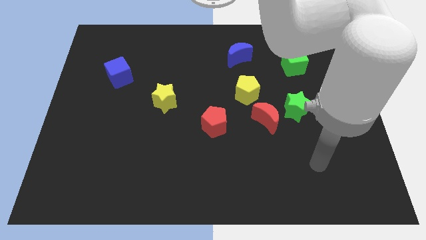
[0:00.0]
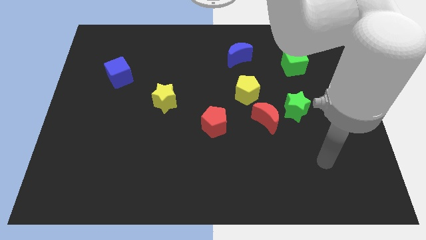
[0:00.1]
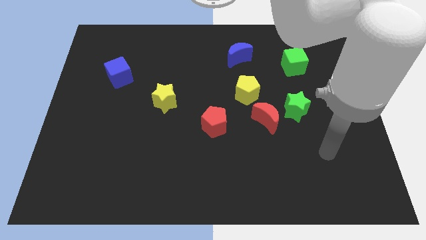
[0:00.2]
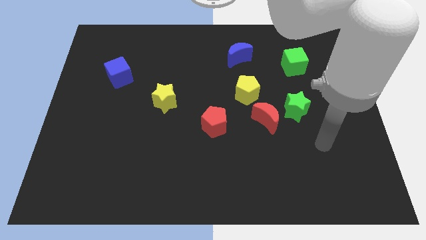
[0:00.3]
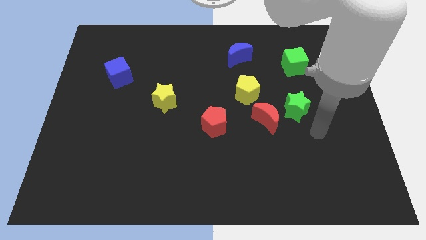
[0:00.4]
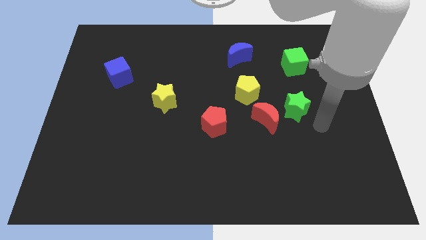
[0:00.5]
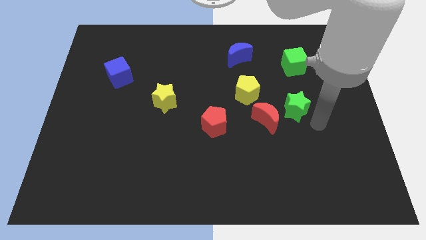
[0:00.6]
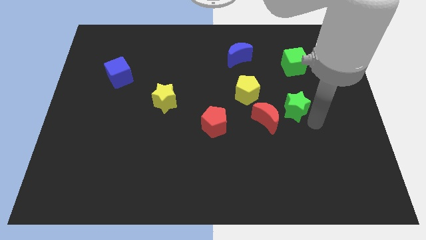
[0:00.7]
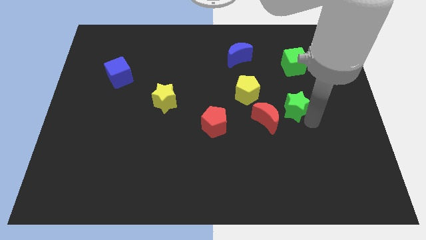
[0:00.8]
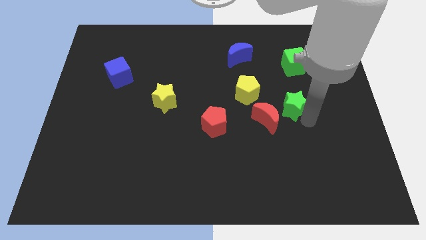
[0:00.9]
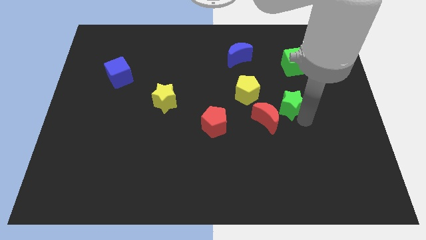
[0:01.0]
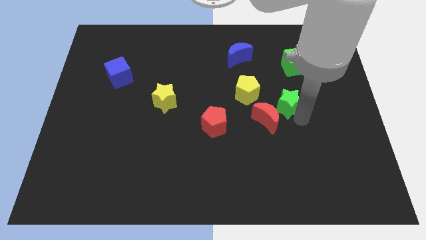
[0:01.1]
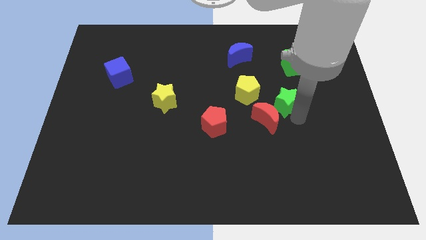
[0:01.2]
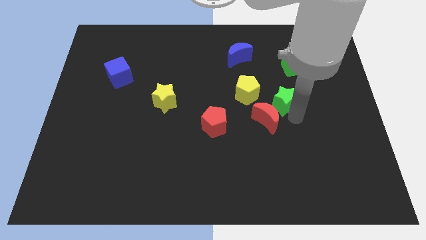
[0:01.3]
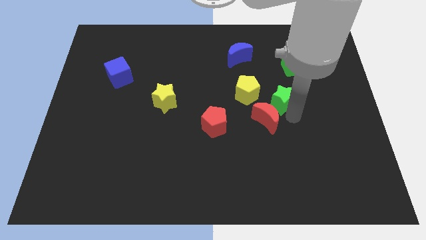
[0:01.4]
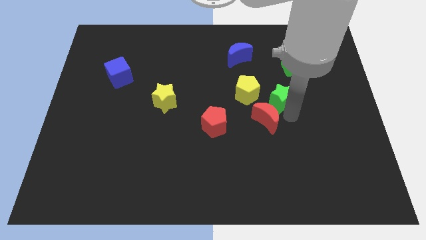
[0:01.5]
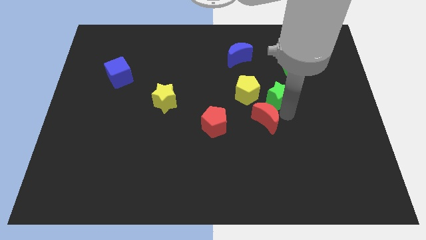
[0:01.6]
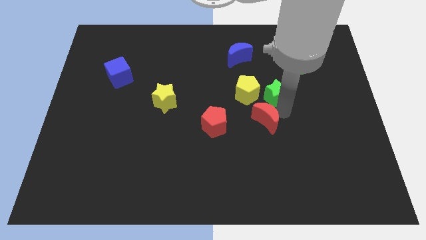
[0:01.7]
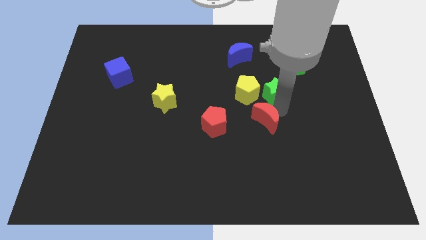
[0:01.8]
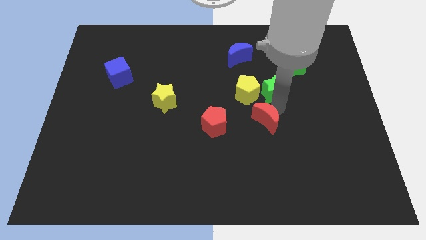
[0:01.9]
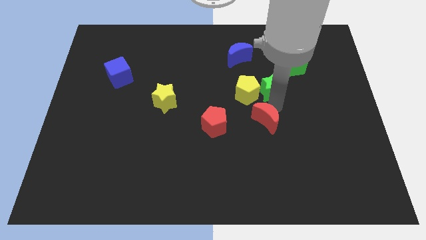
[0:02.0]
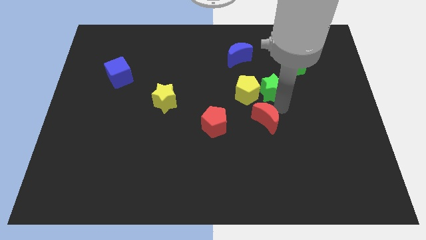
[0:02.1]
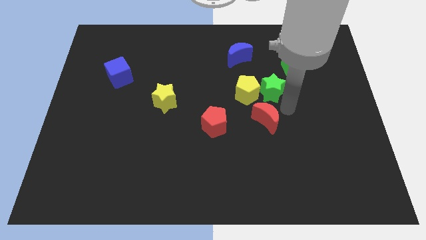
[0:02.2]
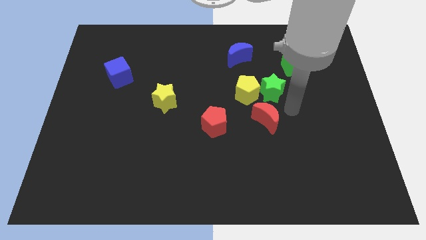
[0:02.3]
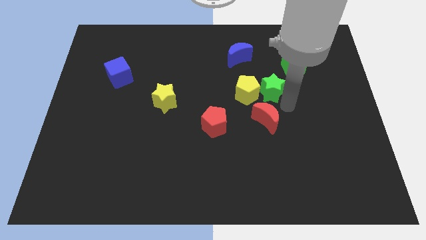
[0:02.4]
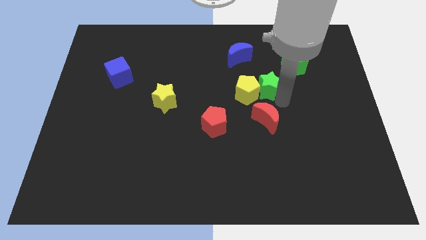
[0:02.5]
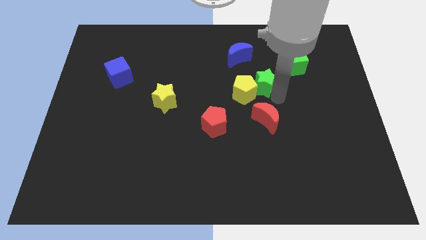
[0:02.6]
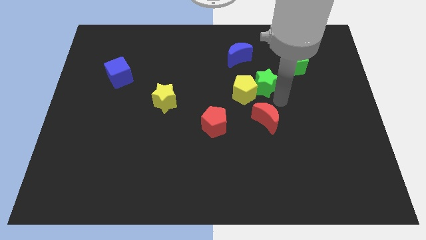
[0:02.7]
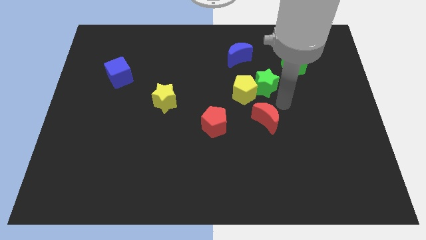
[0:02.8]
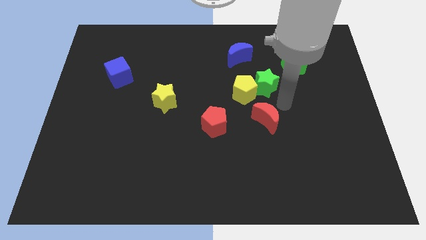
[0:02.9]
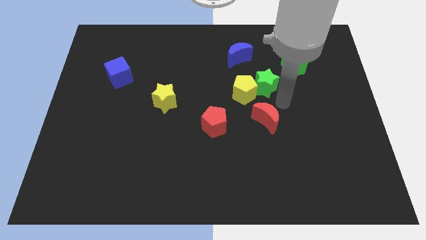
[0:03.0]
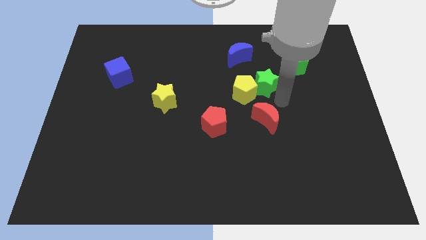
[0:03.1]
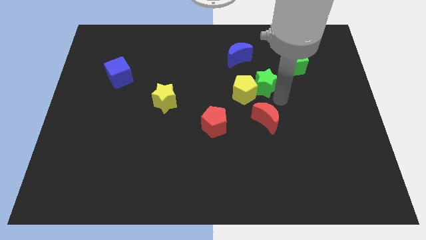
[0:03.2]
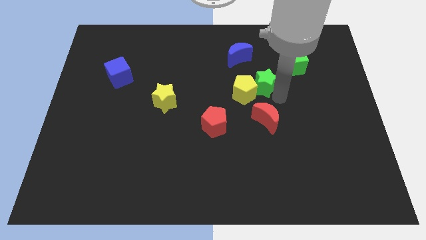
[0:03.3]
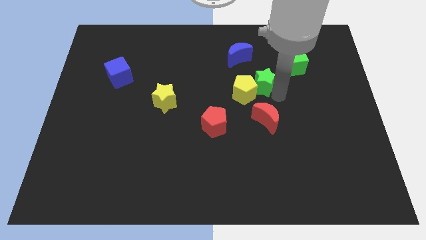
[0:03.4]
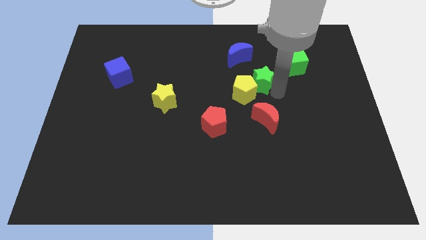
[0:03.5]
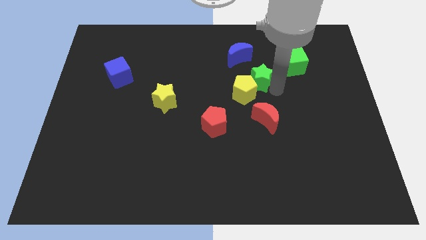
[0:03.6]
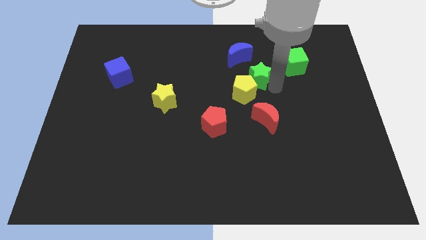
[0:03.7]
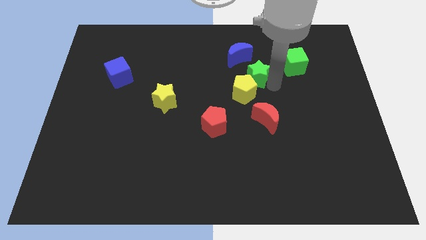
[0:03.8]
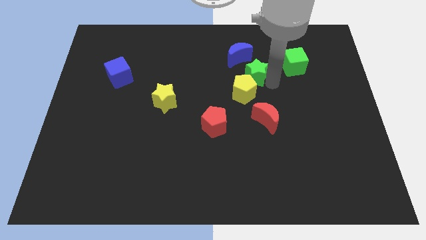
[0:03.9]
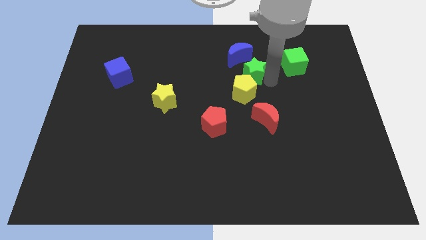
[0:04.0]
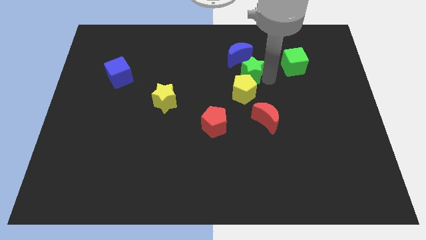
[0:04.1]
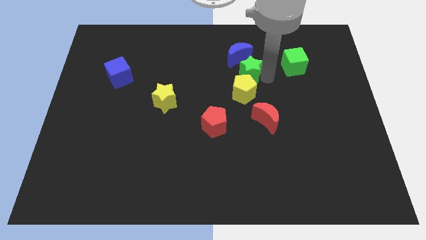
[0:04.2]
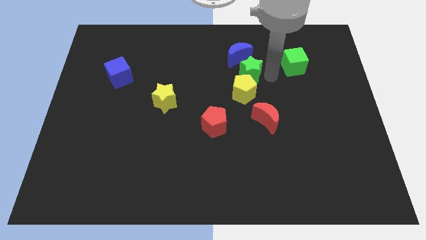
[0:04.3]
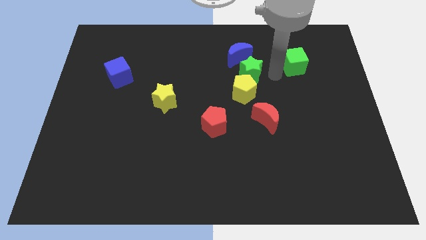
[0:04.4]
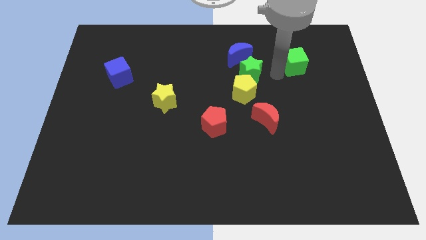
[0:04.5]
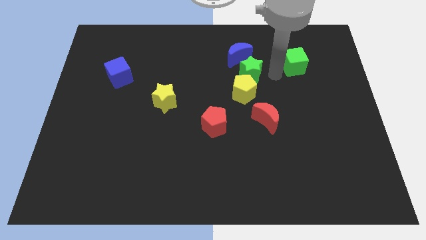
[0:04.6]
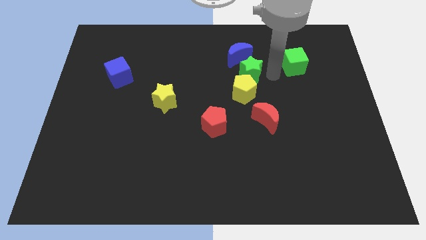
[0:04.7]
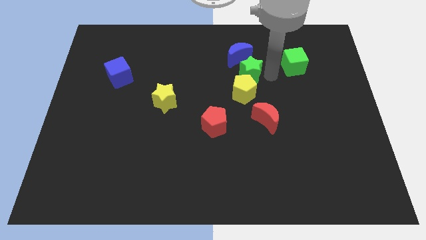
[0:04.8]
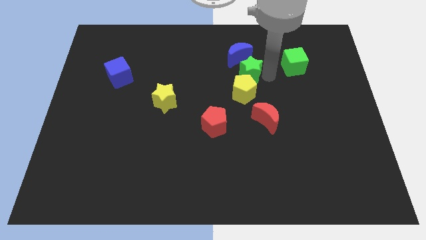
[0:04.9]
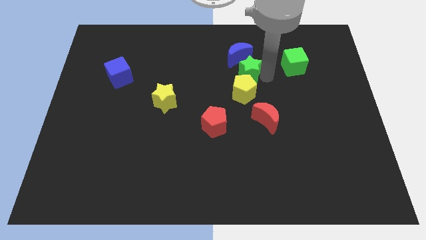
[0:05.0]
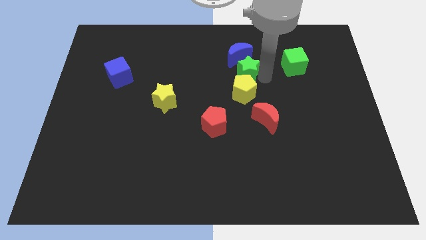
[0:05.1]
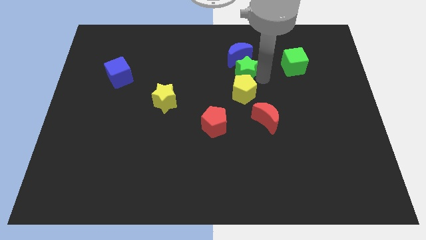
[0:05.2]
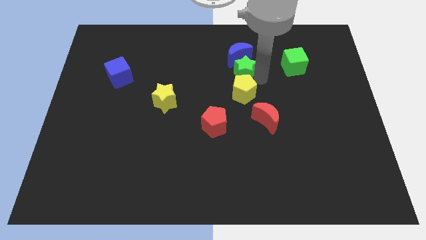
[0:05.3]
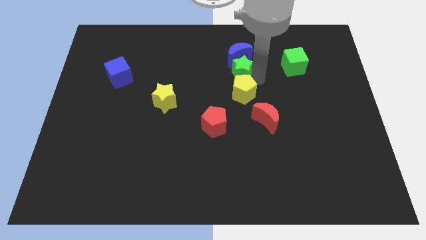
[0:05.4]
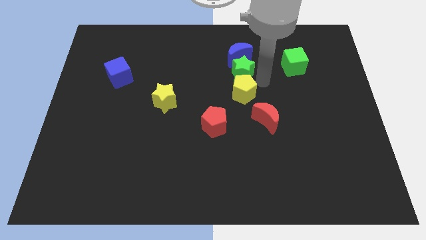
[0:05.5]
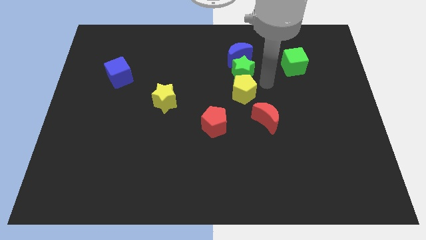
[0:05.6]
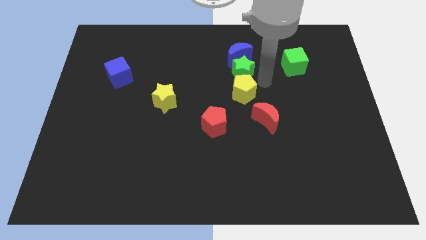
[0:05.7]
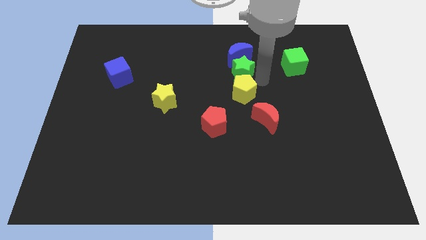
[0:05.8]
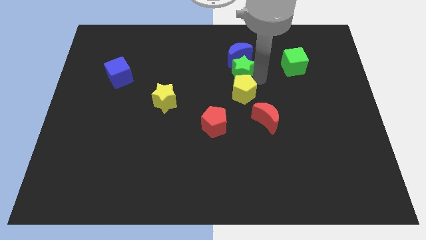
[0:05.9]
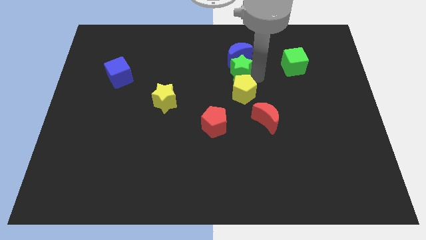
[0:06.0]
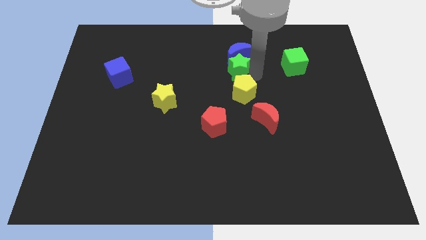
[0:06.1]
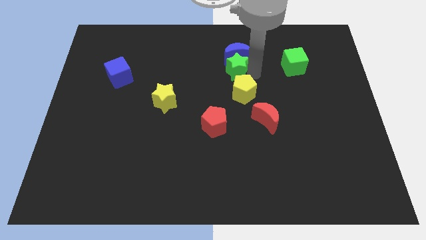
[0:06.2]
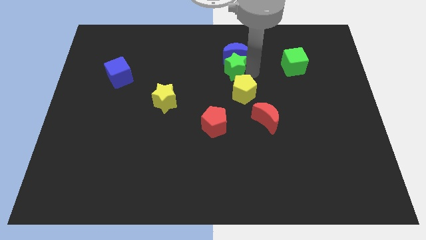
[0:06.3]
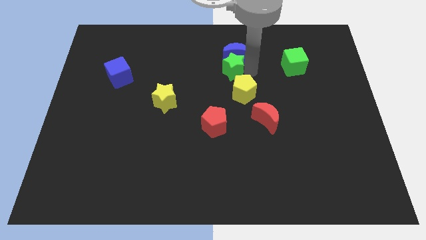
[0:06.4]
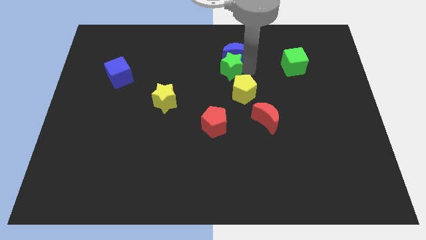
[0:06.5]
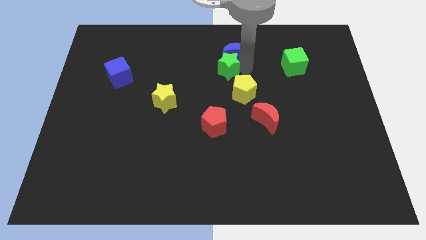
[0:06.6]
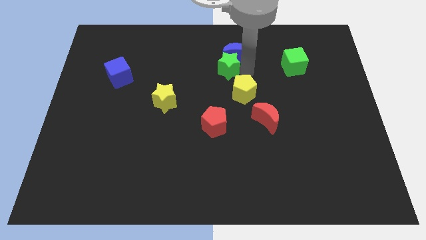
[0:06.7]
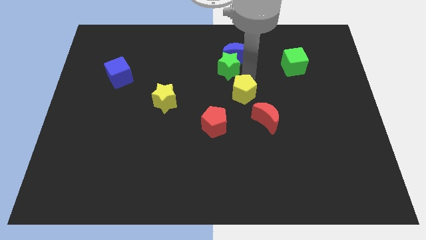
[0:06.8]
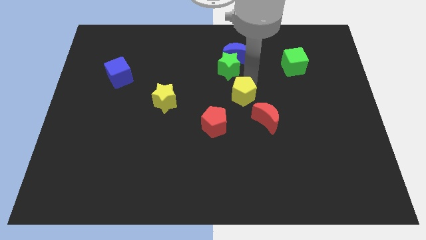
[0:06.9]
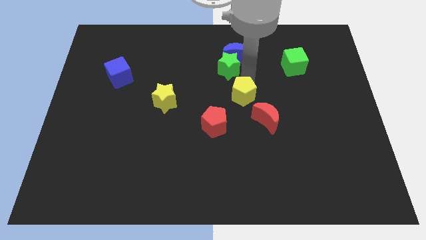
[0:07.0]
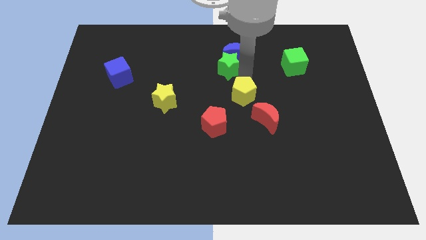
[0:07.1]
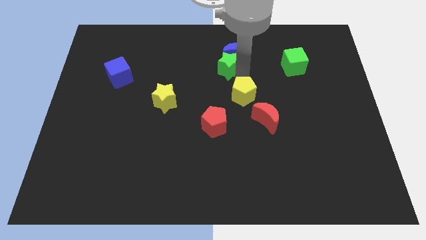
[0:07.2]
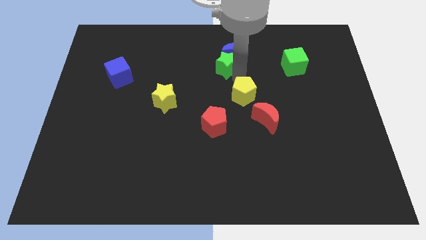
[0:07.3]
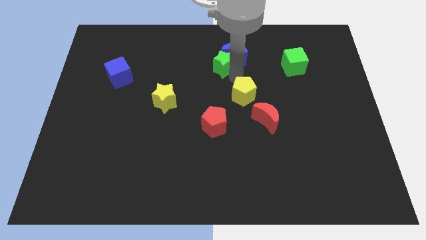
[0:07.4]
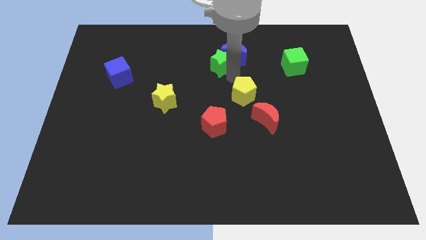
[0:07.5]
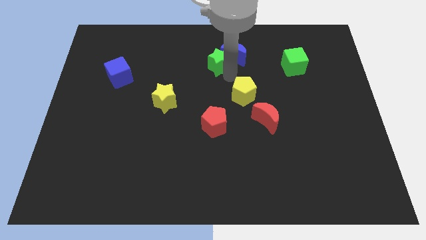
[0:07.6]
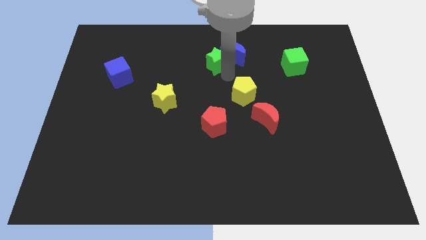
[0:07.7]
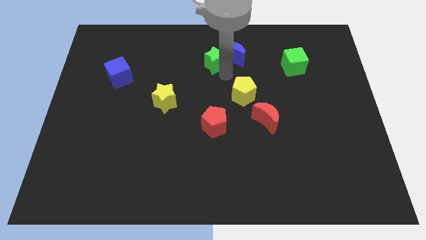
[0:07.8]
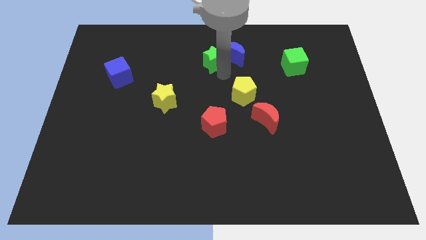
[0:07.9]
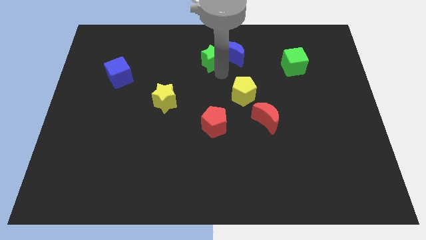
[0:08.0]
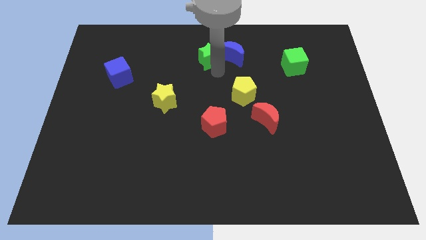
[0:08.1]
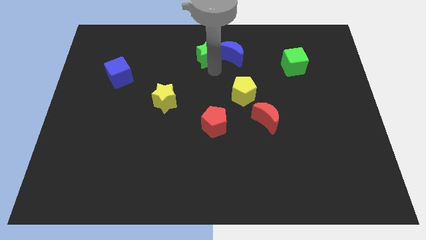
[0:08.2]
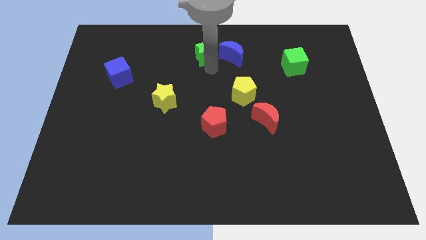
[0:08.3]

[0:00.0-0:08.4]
put the green star to the top side
